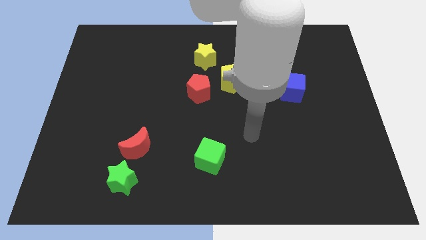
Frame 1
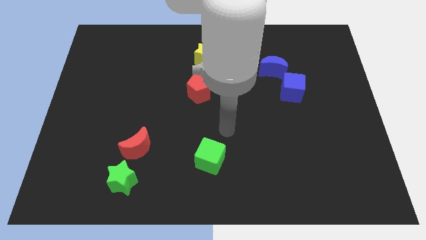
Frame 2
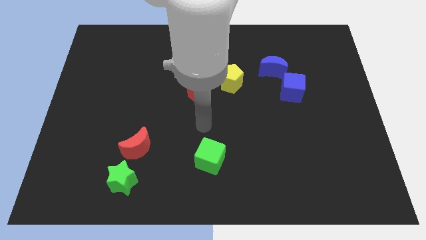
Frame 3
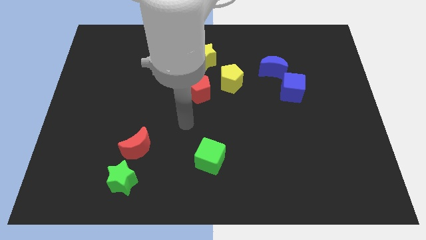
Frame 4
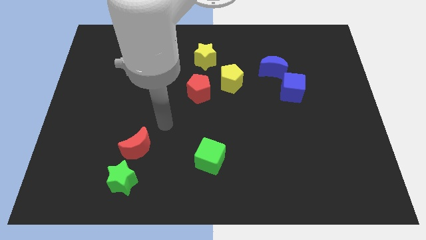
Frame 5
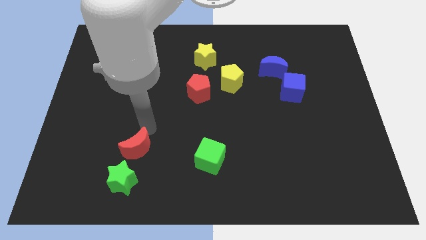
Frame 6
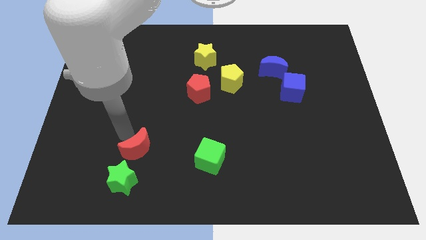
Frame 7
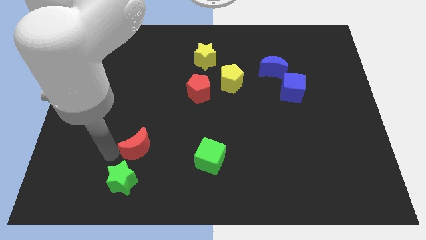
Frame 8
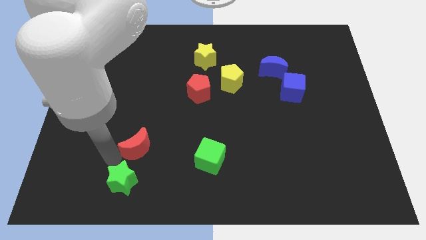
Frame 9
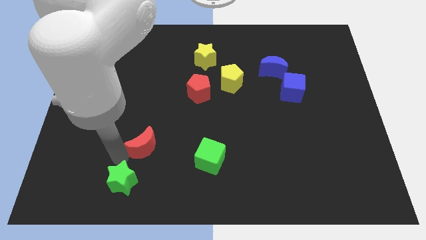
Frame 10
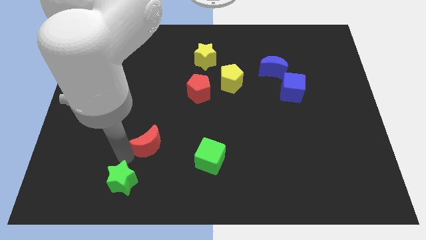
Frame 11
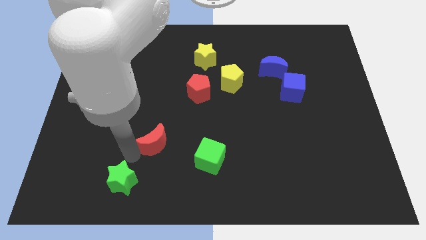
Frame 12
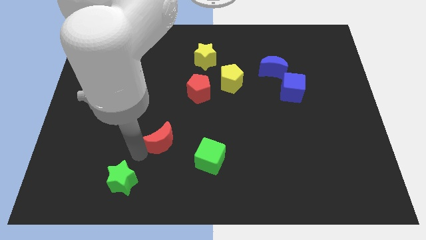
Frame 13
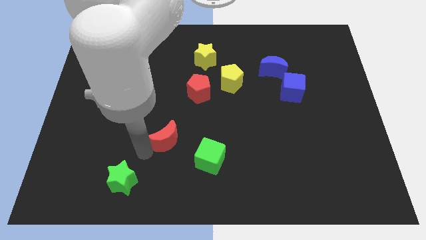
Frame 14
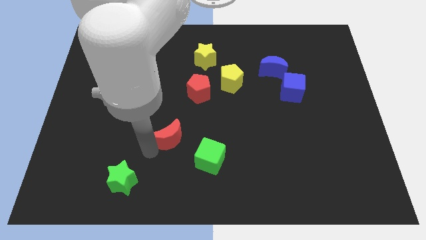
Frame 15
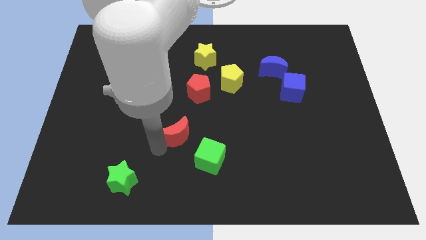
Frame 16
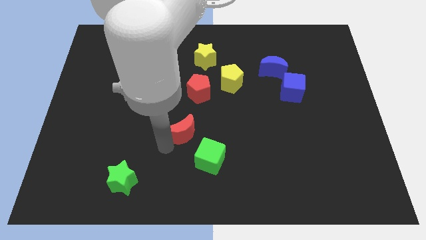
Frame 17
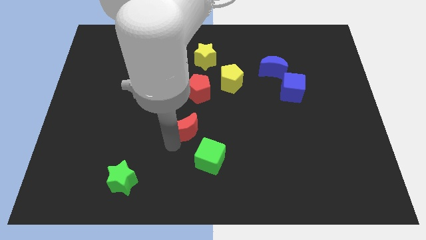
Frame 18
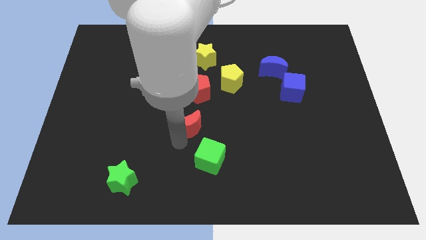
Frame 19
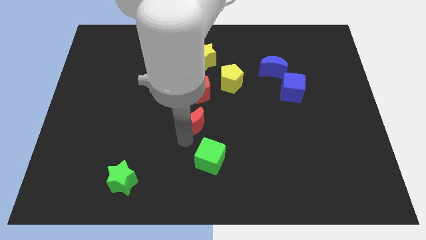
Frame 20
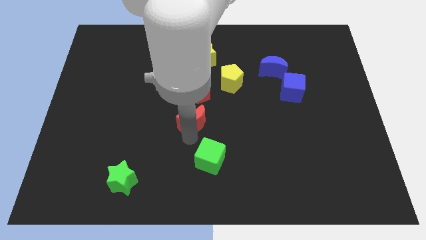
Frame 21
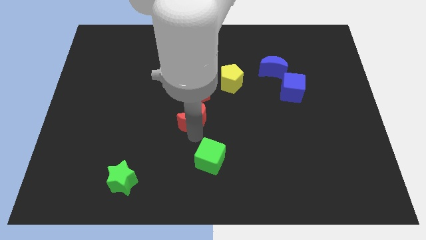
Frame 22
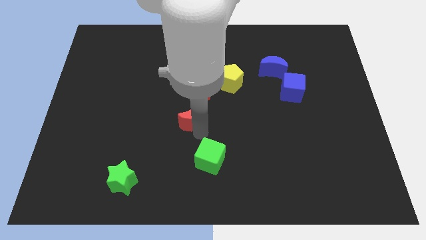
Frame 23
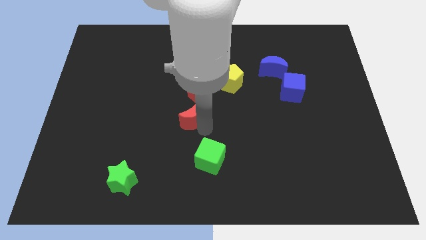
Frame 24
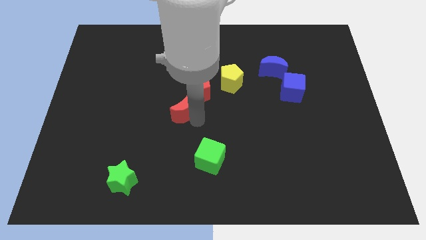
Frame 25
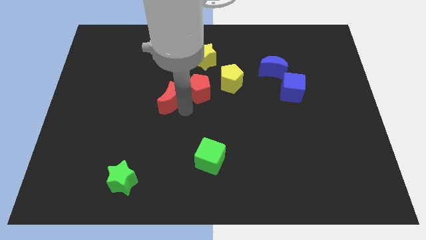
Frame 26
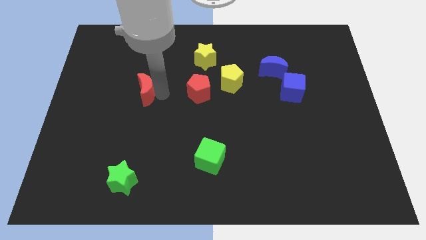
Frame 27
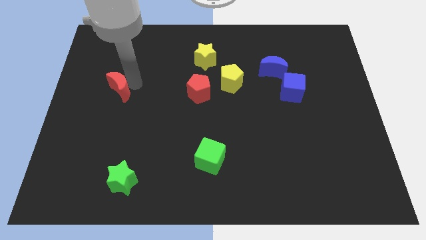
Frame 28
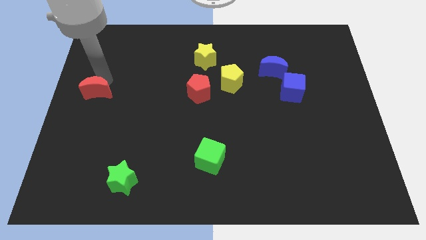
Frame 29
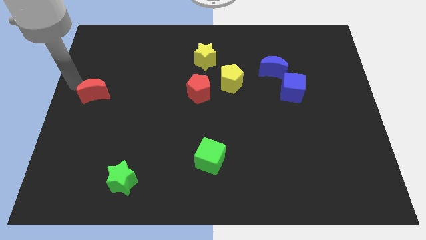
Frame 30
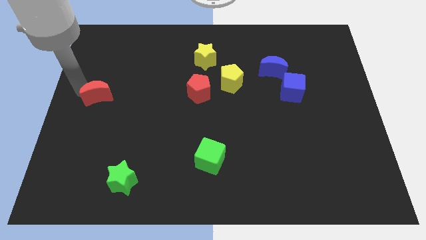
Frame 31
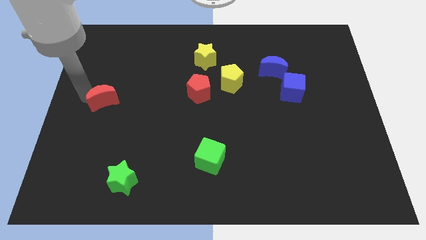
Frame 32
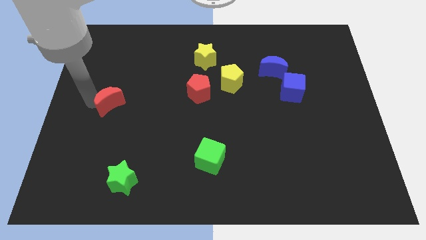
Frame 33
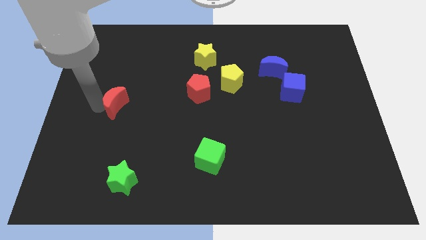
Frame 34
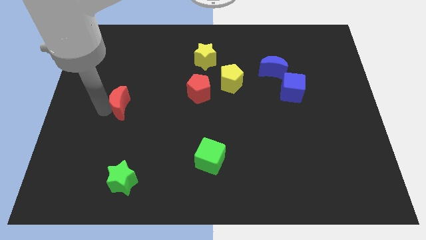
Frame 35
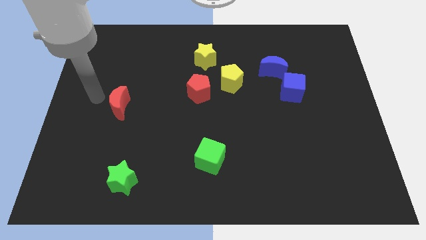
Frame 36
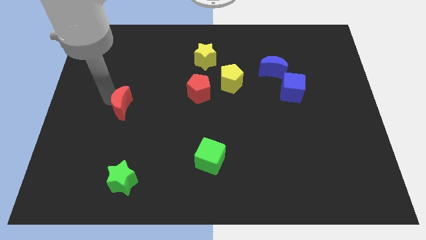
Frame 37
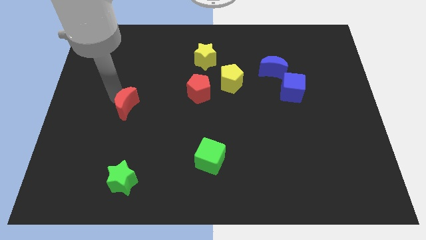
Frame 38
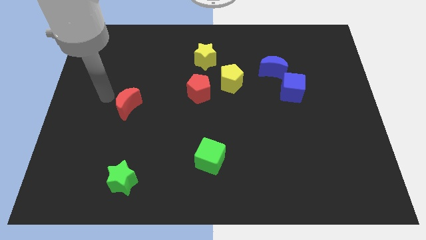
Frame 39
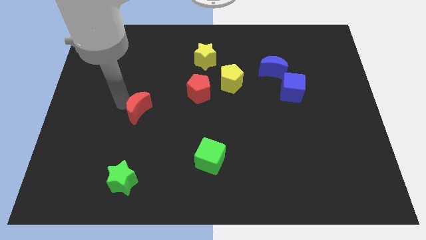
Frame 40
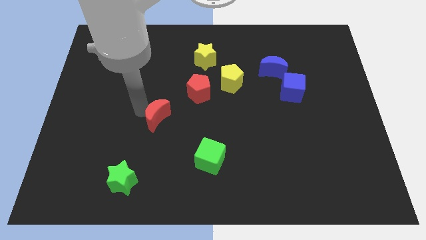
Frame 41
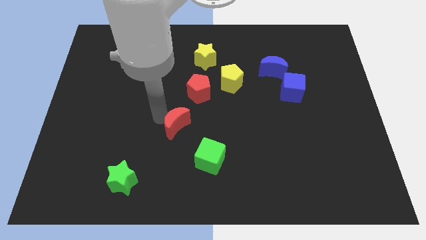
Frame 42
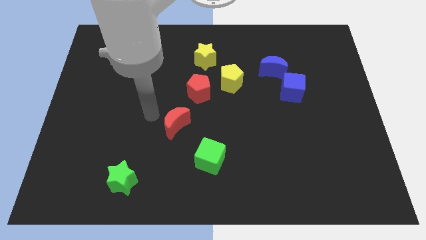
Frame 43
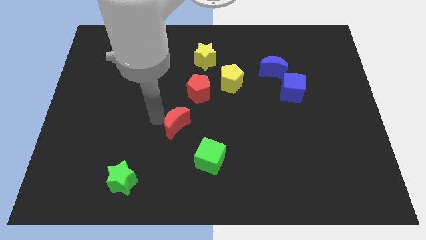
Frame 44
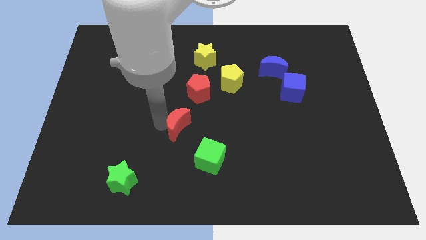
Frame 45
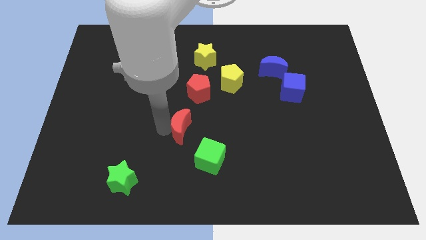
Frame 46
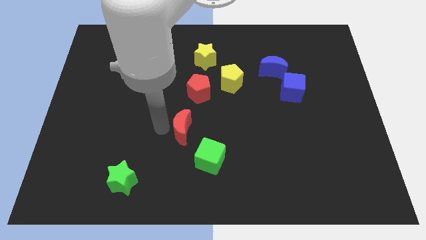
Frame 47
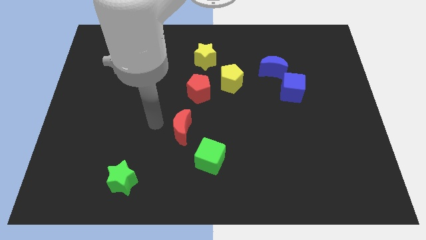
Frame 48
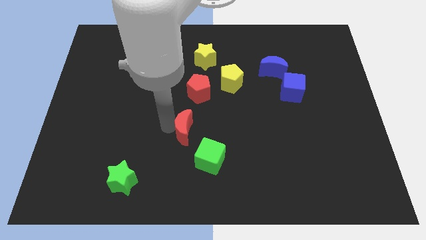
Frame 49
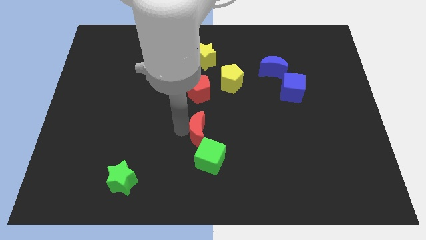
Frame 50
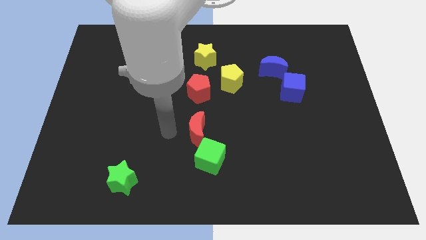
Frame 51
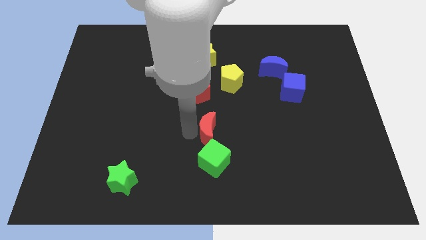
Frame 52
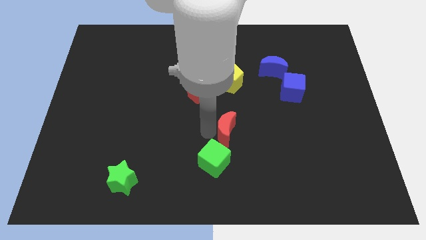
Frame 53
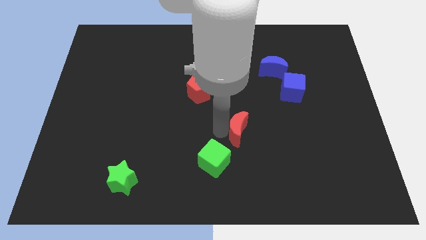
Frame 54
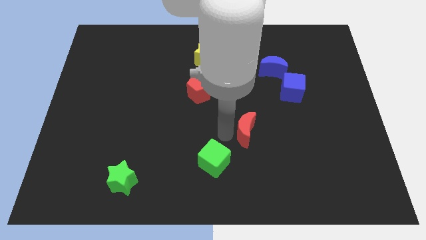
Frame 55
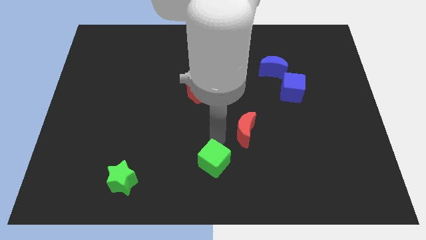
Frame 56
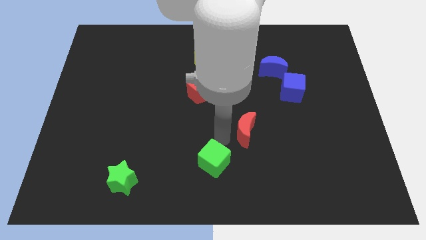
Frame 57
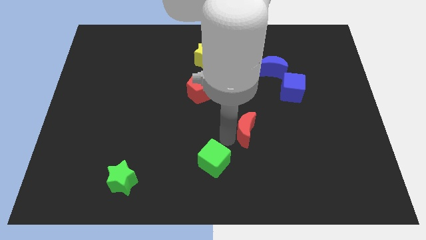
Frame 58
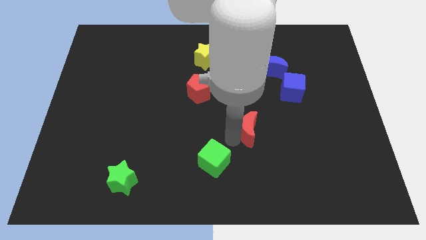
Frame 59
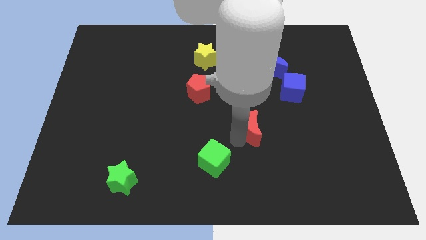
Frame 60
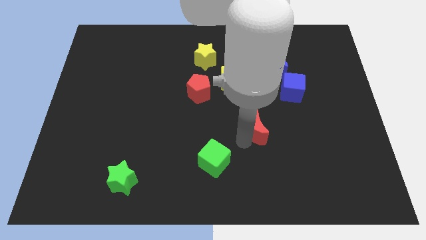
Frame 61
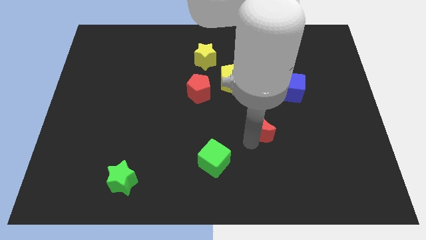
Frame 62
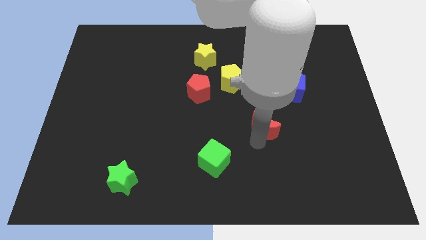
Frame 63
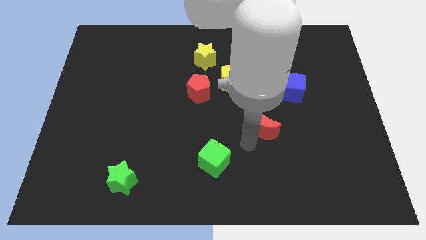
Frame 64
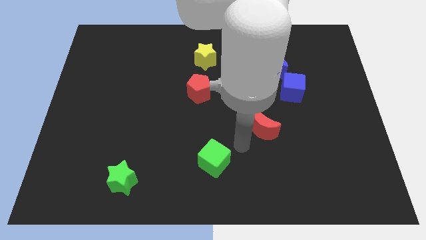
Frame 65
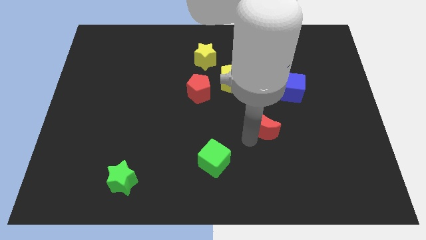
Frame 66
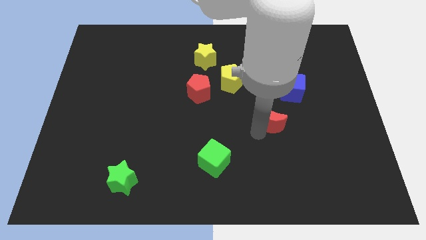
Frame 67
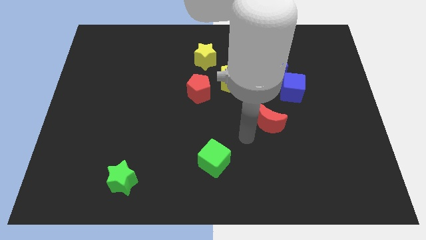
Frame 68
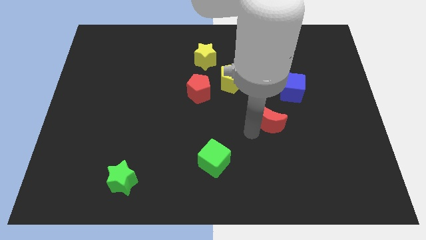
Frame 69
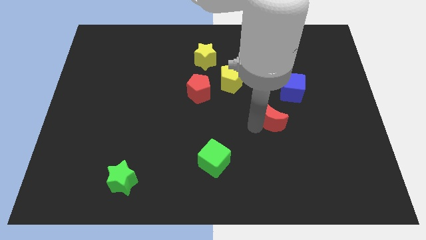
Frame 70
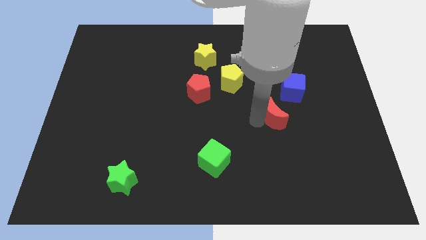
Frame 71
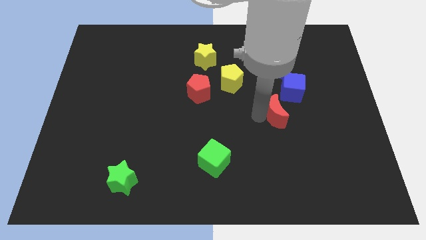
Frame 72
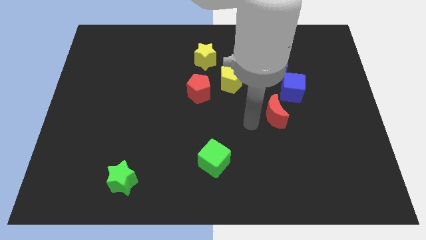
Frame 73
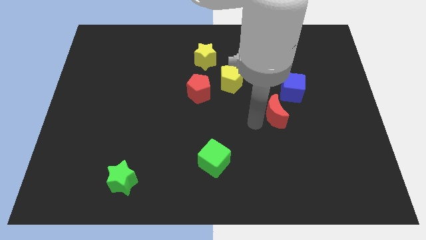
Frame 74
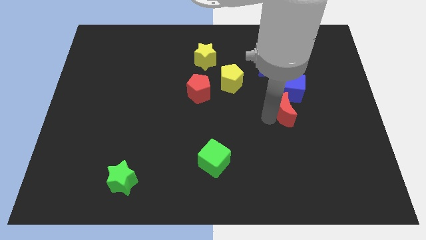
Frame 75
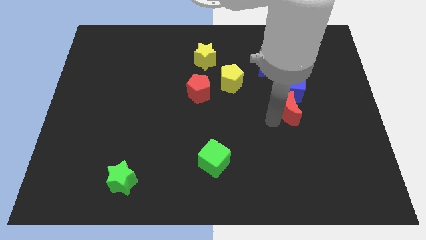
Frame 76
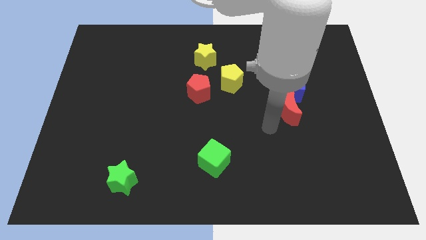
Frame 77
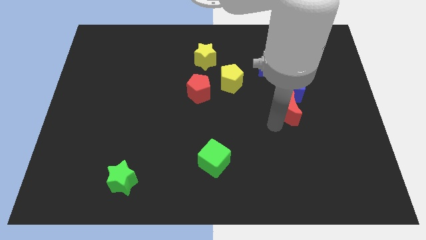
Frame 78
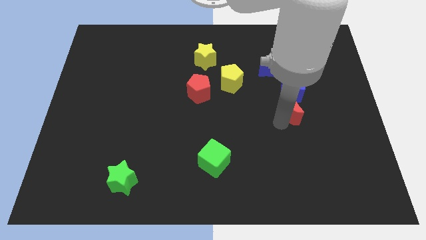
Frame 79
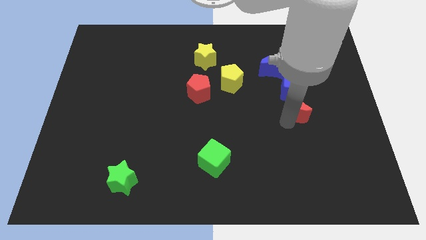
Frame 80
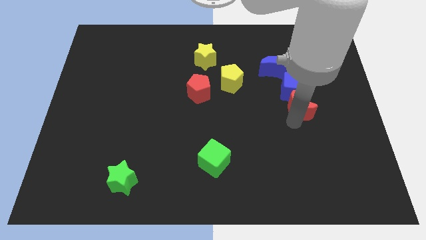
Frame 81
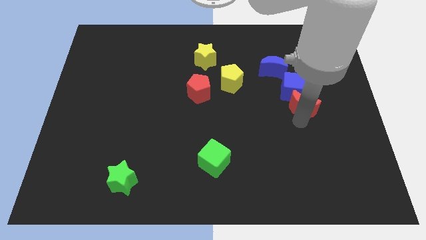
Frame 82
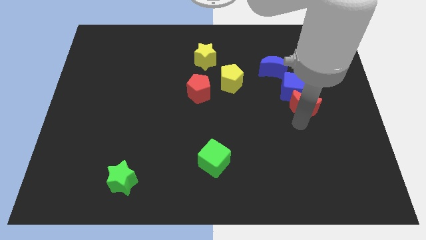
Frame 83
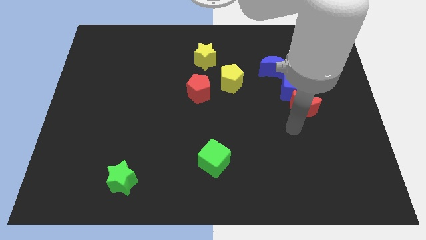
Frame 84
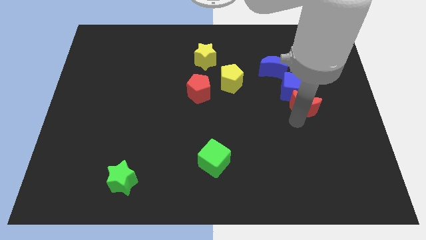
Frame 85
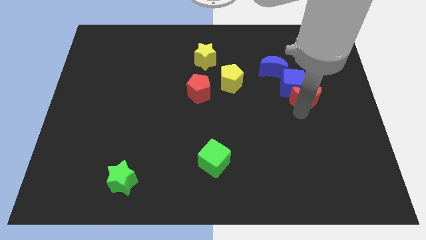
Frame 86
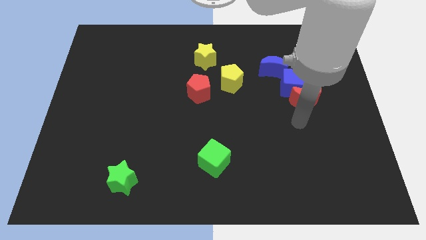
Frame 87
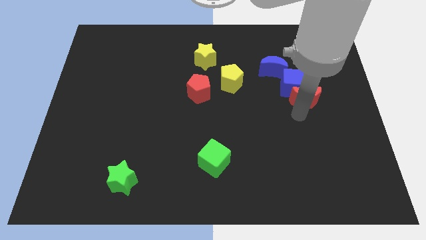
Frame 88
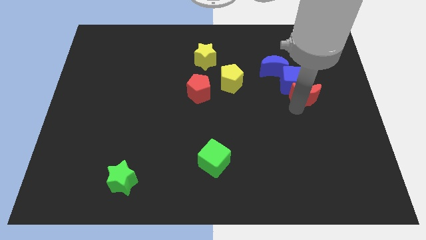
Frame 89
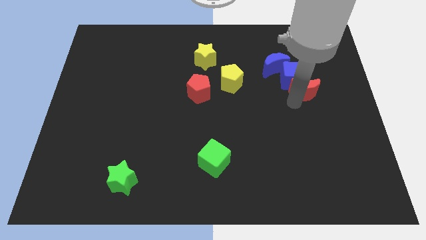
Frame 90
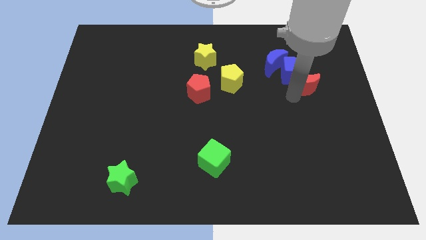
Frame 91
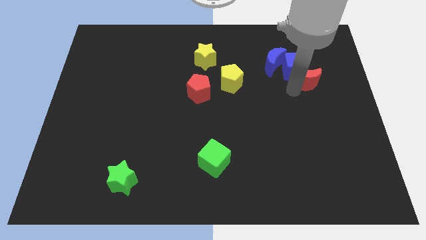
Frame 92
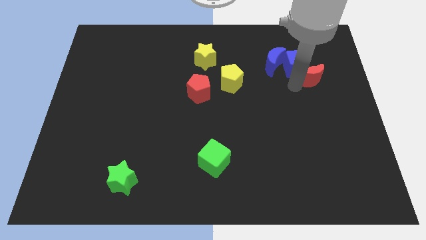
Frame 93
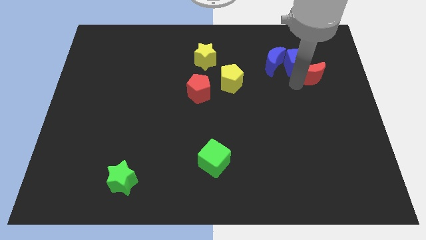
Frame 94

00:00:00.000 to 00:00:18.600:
put the red moon right of the blue moon
